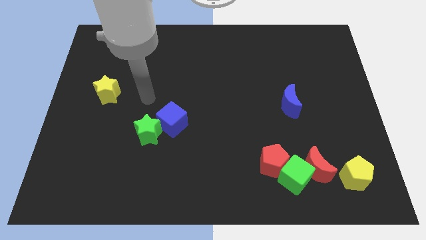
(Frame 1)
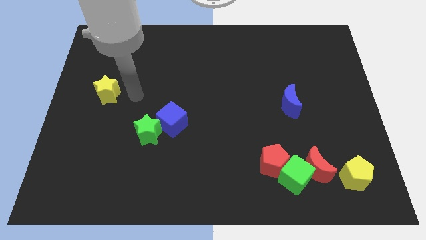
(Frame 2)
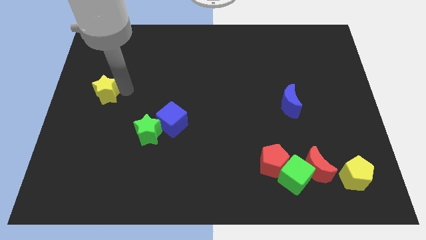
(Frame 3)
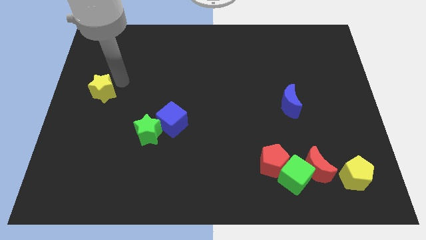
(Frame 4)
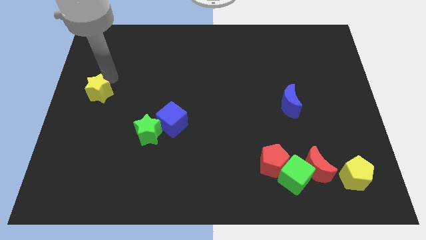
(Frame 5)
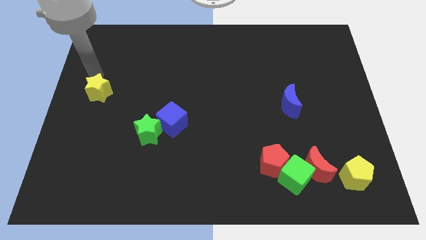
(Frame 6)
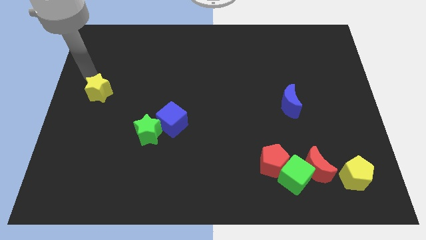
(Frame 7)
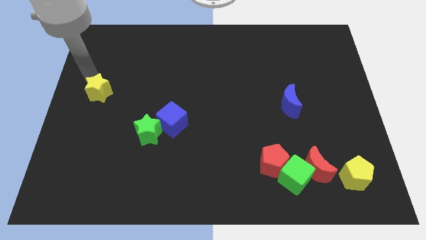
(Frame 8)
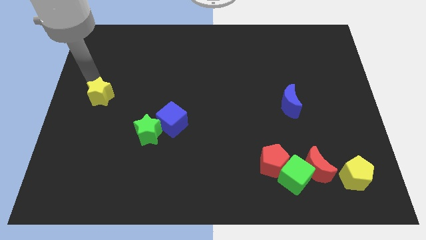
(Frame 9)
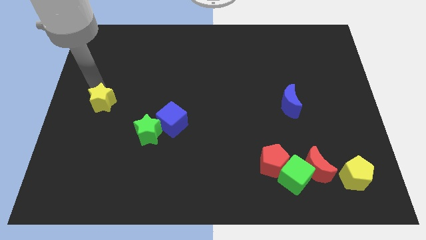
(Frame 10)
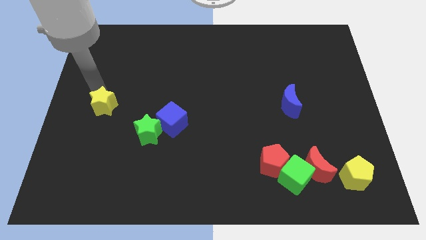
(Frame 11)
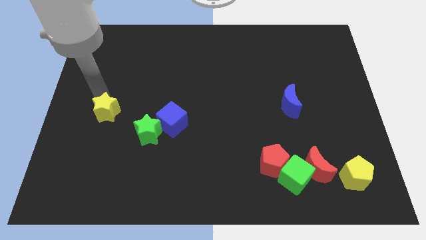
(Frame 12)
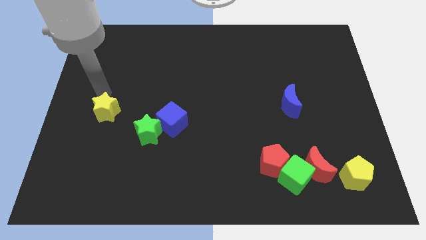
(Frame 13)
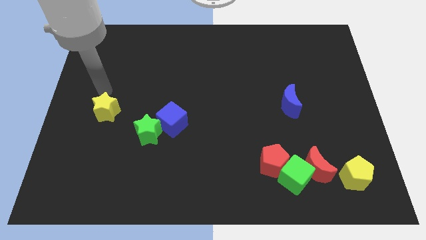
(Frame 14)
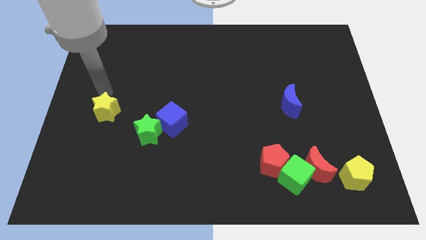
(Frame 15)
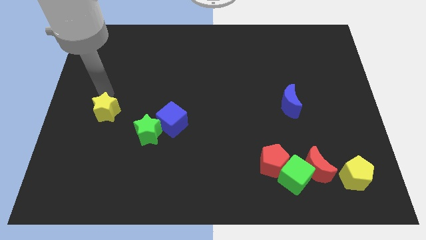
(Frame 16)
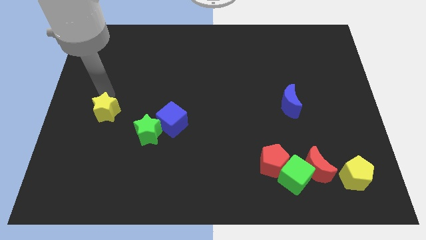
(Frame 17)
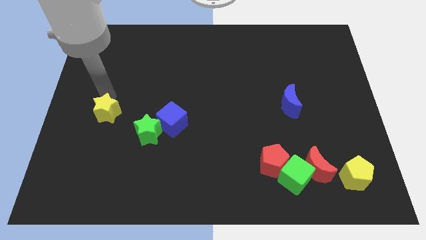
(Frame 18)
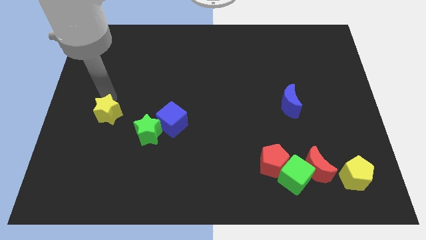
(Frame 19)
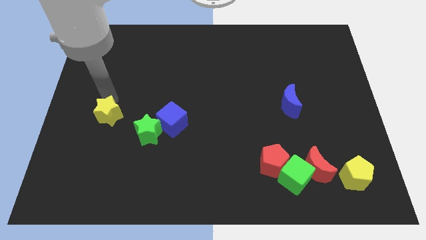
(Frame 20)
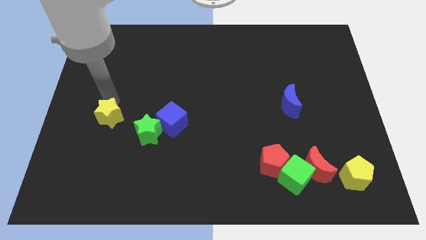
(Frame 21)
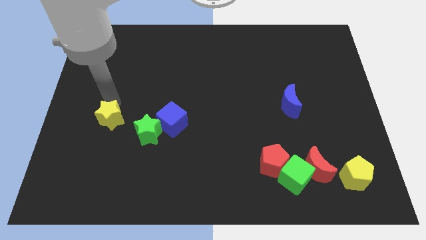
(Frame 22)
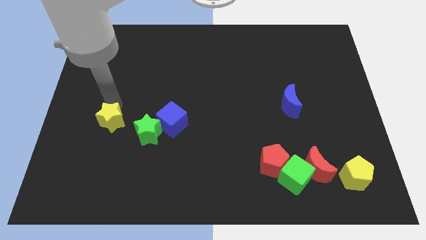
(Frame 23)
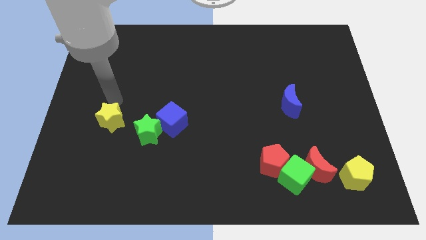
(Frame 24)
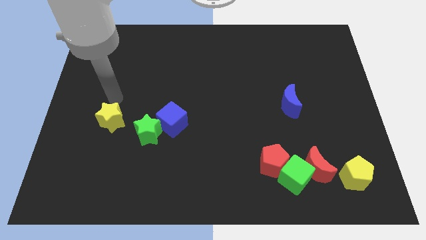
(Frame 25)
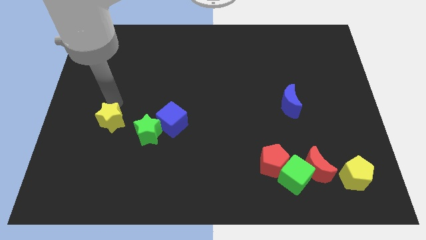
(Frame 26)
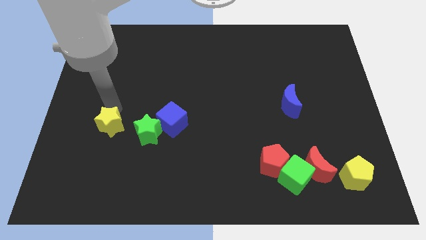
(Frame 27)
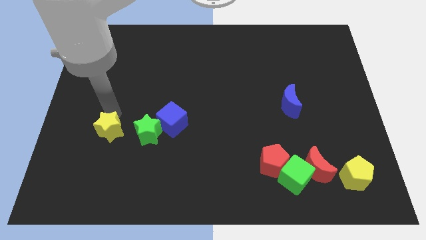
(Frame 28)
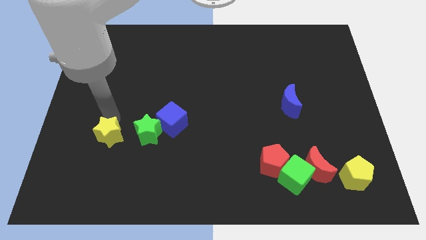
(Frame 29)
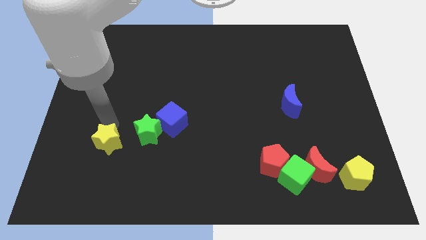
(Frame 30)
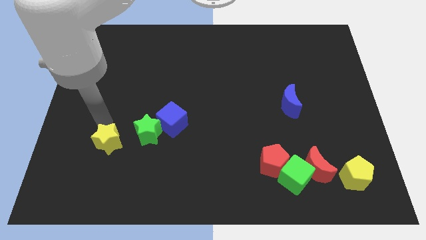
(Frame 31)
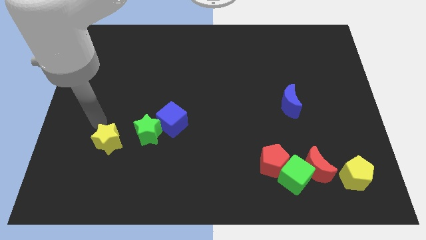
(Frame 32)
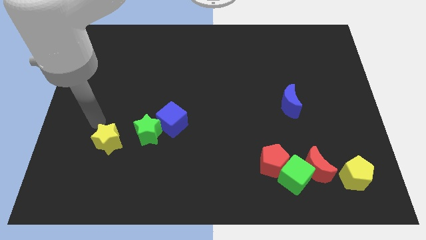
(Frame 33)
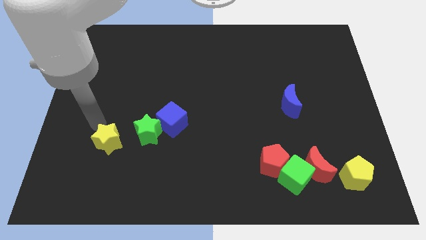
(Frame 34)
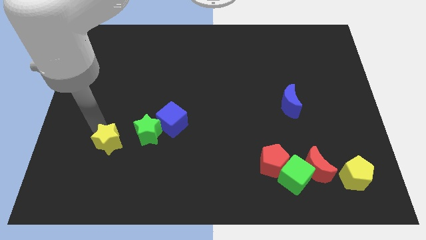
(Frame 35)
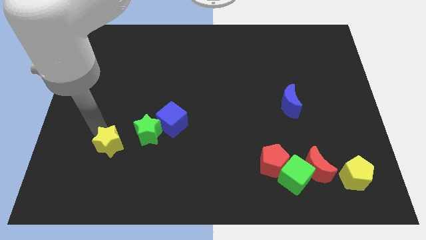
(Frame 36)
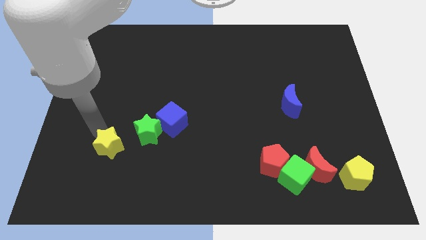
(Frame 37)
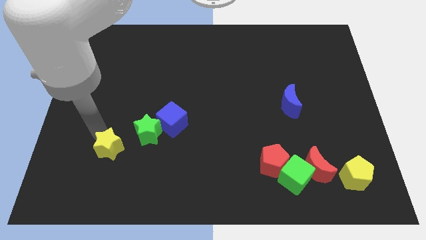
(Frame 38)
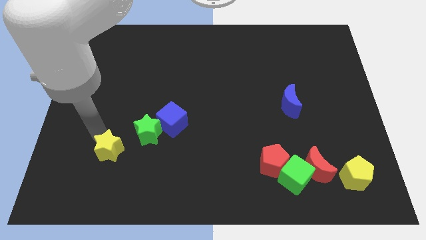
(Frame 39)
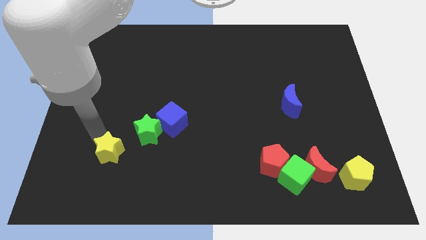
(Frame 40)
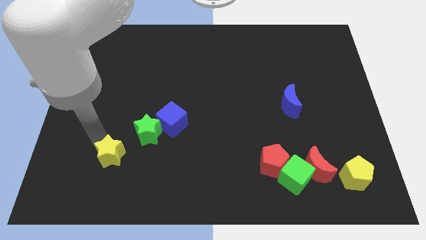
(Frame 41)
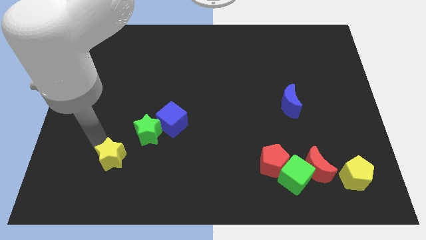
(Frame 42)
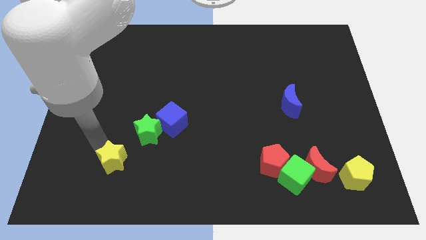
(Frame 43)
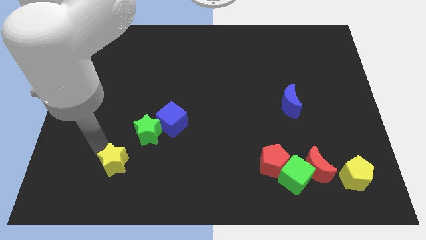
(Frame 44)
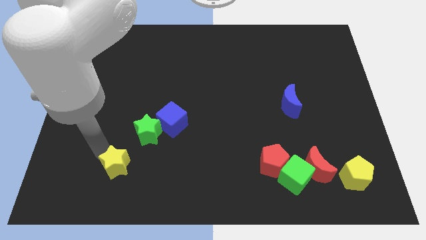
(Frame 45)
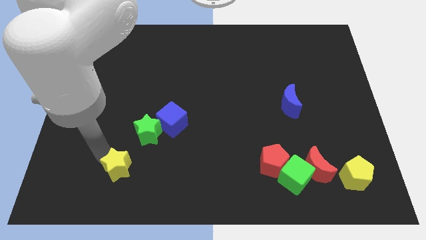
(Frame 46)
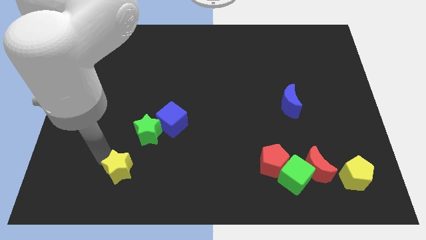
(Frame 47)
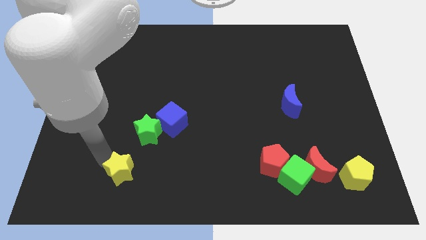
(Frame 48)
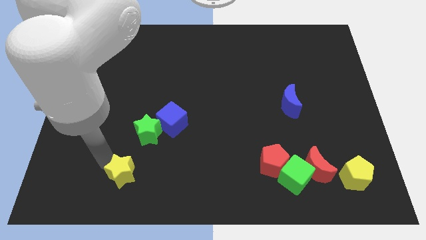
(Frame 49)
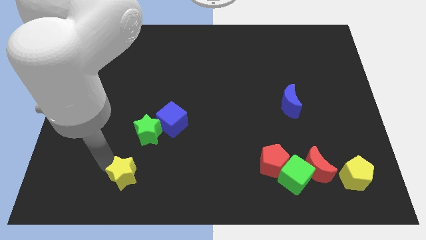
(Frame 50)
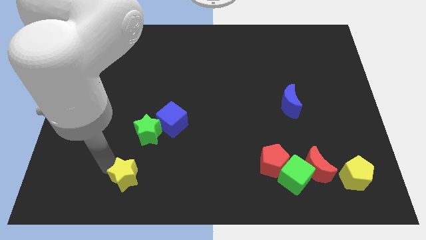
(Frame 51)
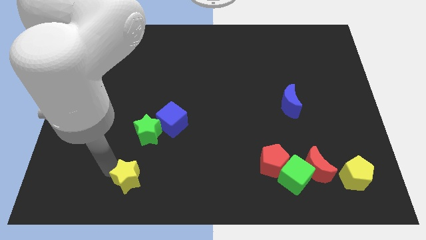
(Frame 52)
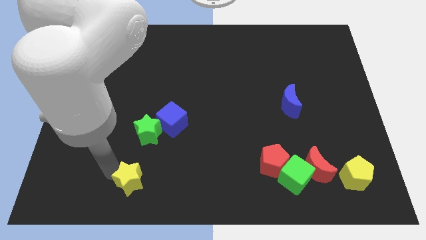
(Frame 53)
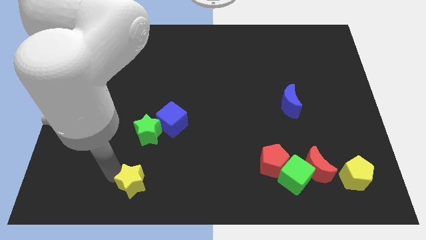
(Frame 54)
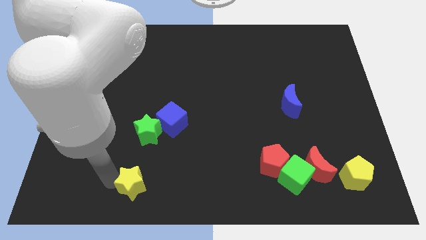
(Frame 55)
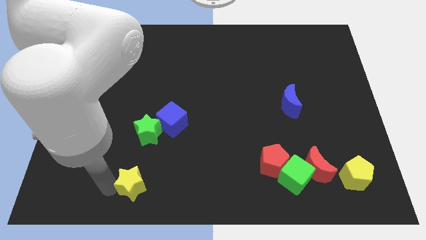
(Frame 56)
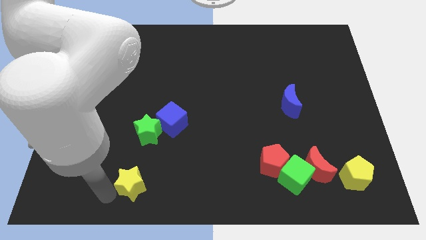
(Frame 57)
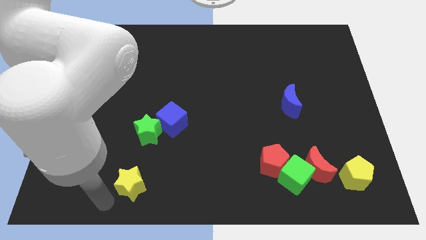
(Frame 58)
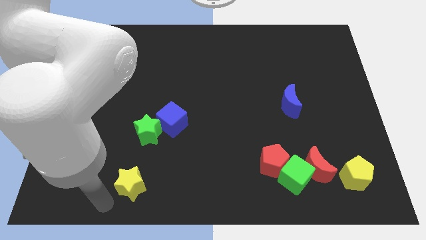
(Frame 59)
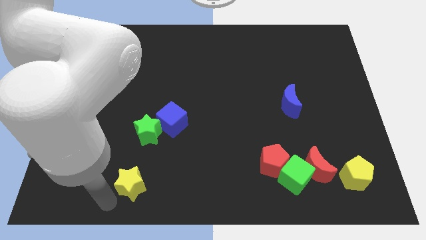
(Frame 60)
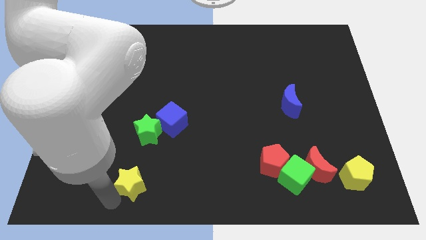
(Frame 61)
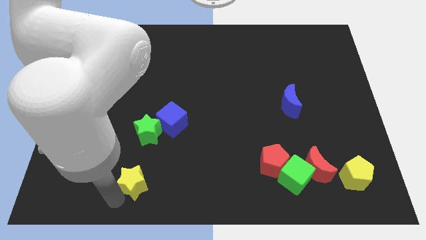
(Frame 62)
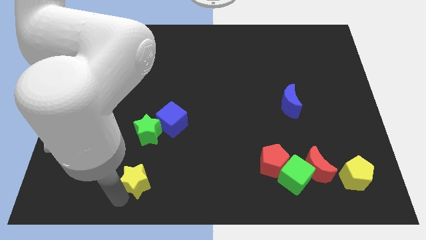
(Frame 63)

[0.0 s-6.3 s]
slide the yellow star downwards and right

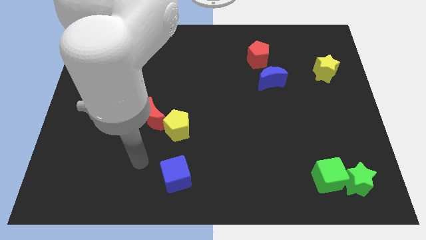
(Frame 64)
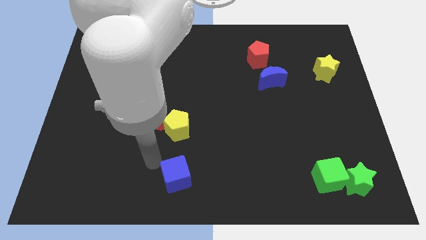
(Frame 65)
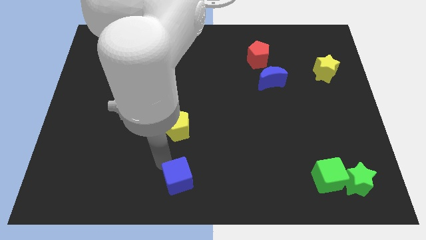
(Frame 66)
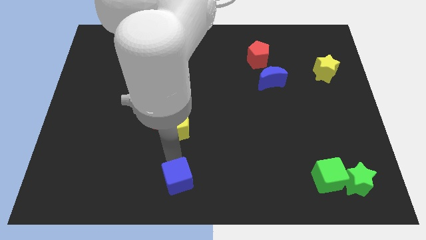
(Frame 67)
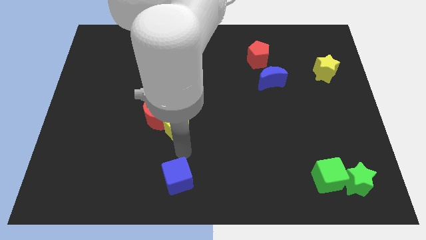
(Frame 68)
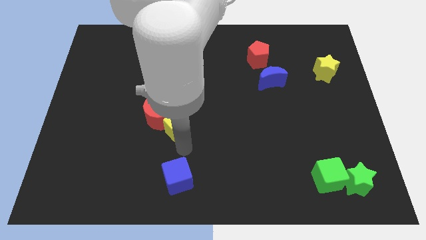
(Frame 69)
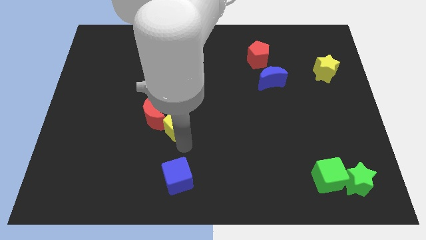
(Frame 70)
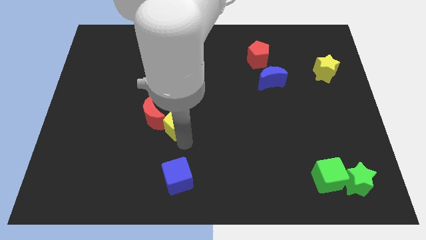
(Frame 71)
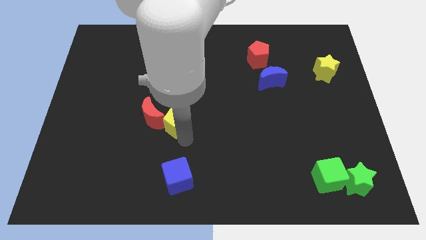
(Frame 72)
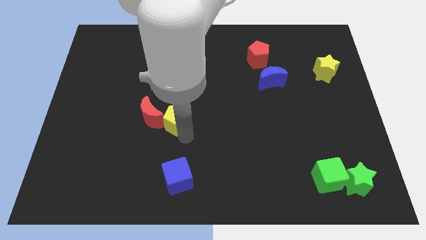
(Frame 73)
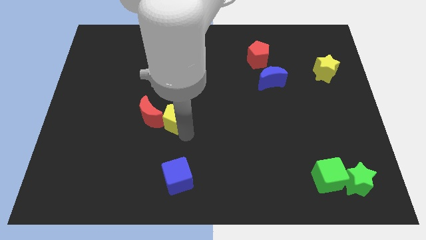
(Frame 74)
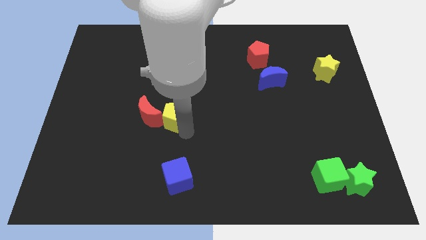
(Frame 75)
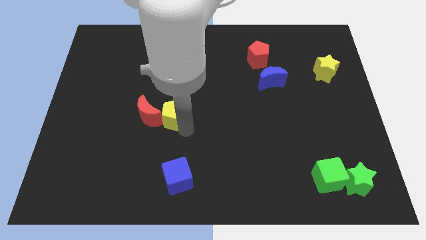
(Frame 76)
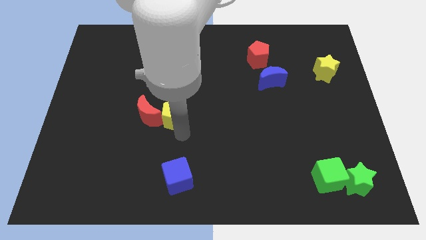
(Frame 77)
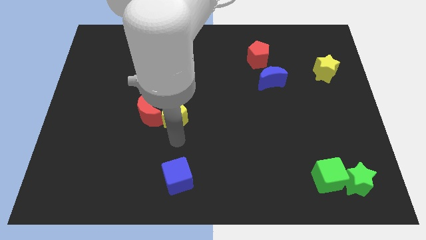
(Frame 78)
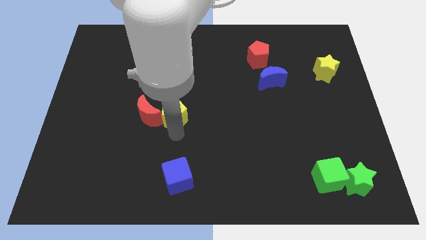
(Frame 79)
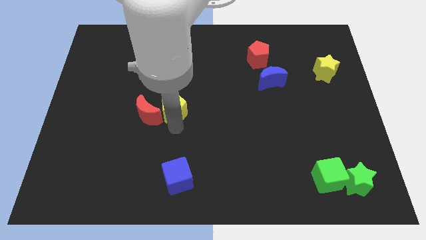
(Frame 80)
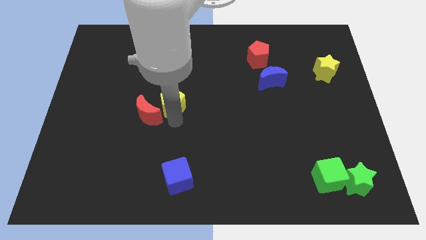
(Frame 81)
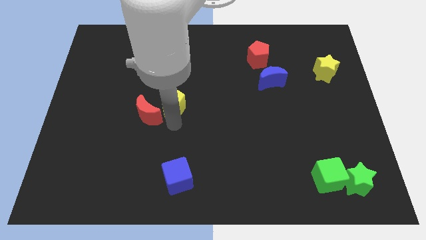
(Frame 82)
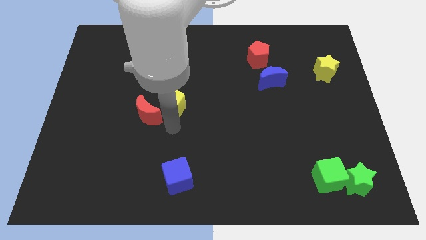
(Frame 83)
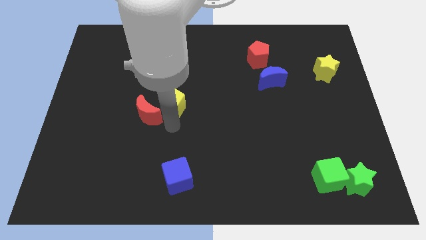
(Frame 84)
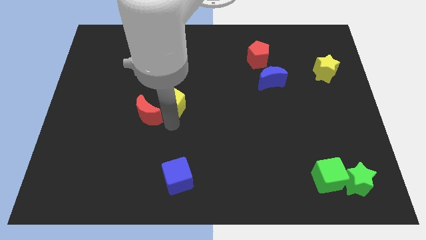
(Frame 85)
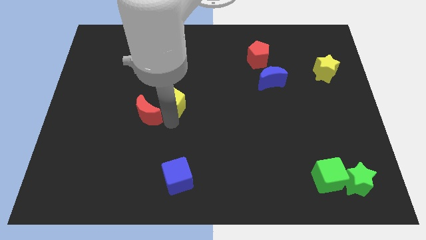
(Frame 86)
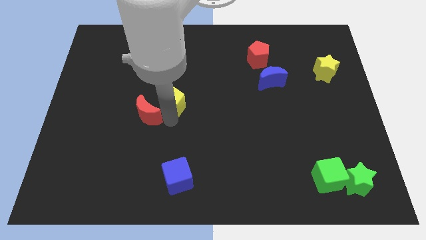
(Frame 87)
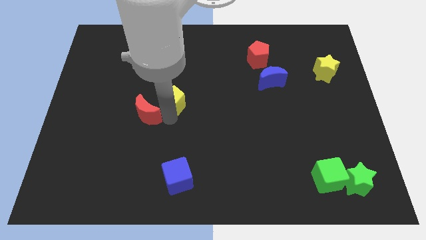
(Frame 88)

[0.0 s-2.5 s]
slide the yellow pentagon a bit up

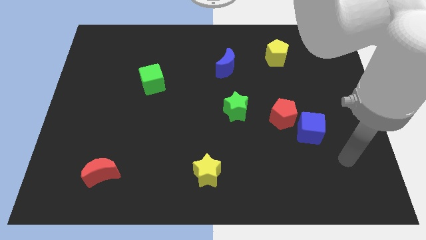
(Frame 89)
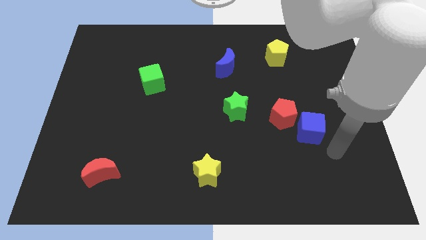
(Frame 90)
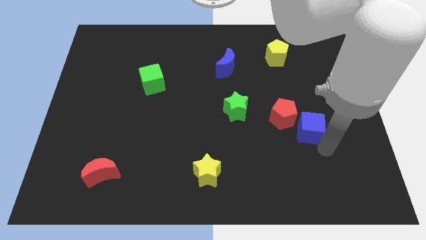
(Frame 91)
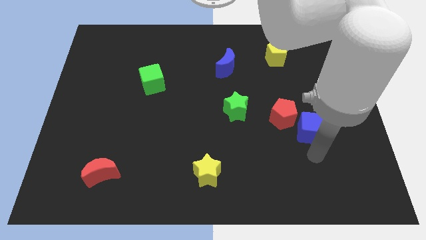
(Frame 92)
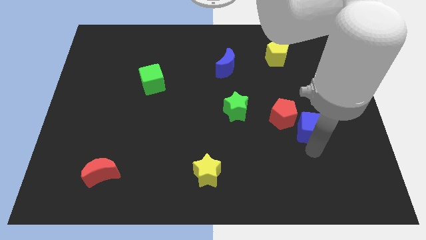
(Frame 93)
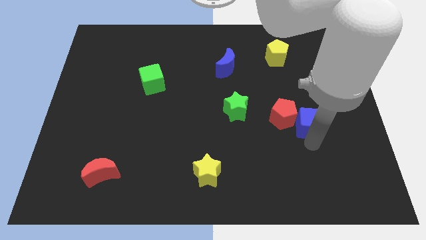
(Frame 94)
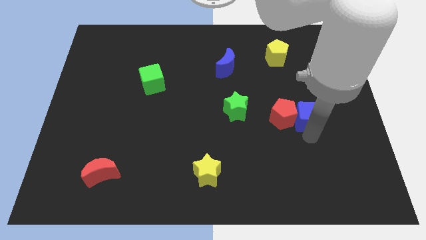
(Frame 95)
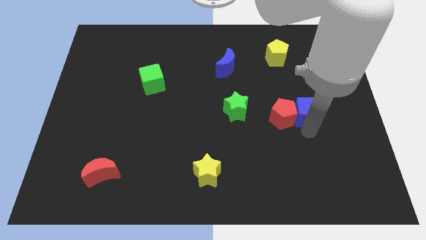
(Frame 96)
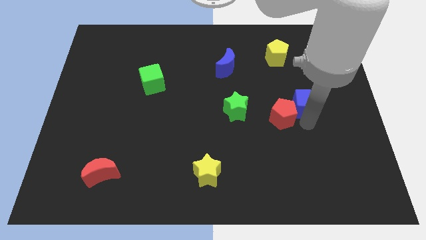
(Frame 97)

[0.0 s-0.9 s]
slightly move the blue cube upwards
